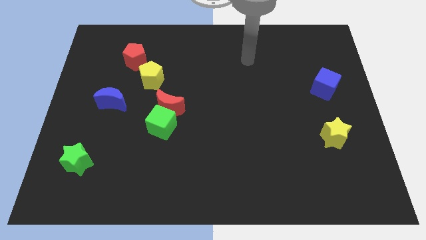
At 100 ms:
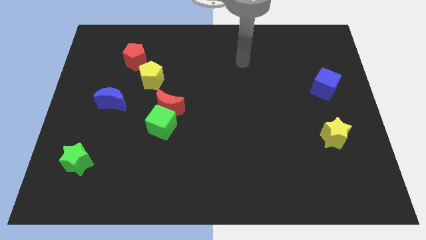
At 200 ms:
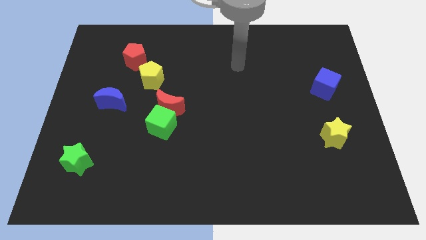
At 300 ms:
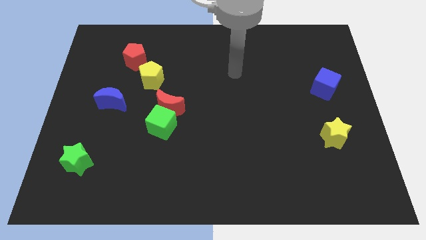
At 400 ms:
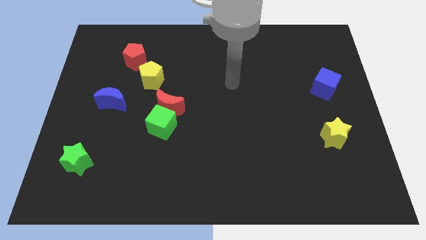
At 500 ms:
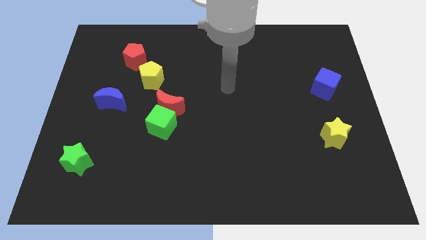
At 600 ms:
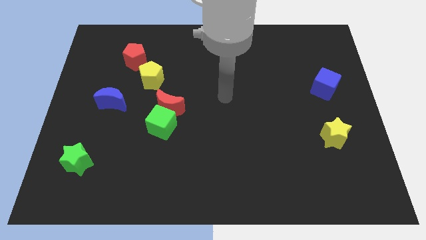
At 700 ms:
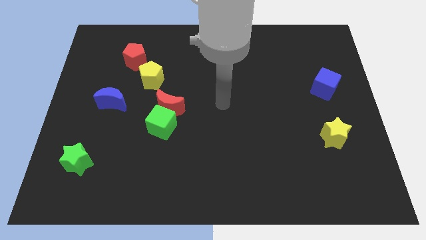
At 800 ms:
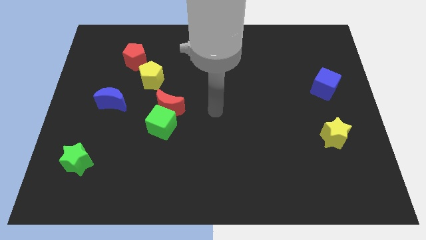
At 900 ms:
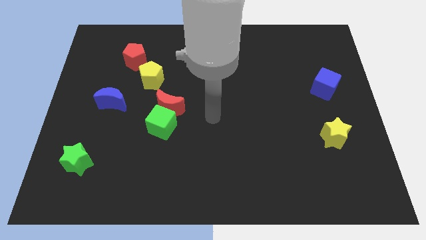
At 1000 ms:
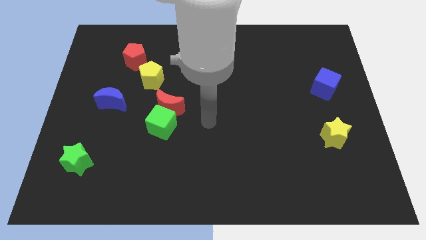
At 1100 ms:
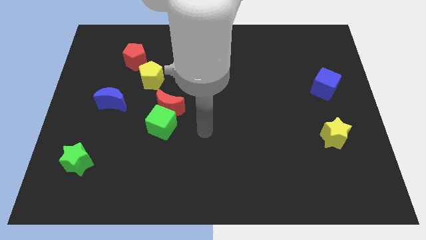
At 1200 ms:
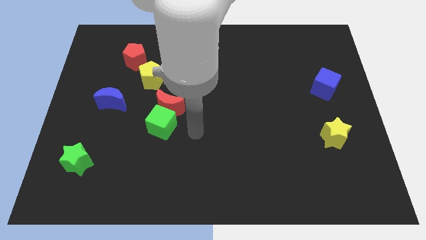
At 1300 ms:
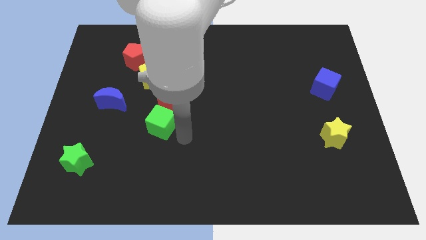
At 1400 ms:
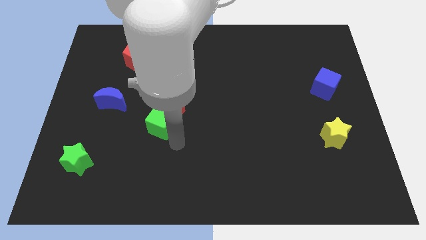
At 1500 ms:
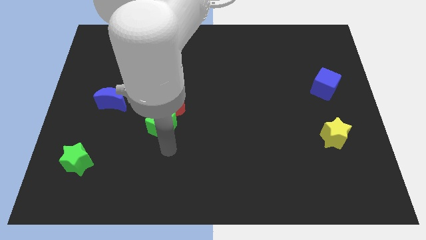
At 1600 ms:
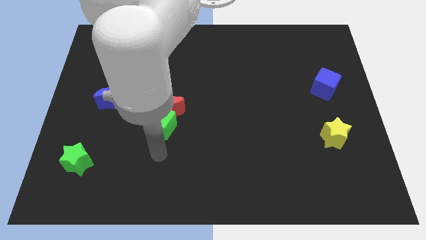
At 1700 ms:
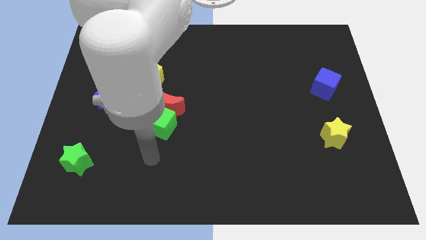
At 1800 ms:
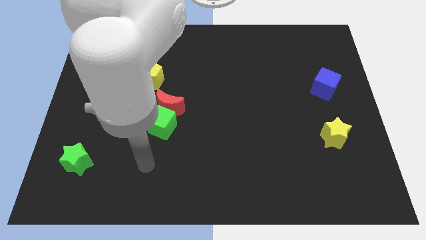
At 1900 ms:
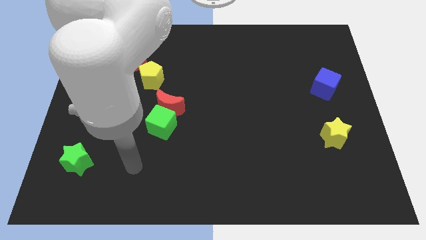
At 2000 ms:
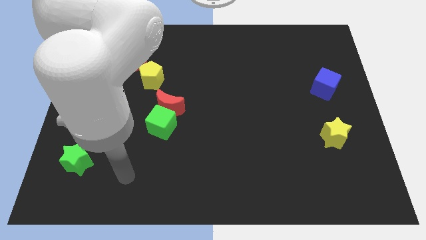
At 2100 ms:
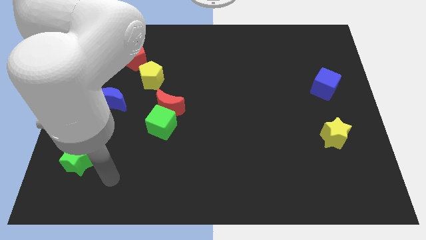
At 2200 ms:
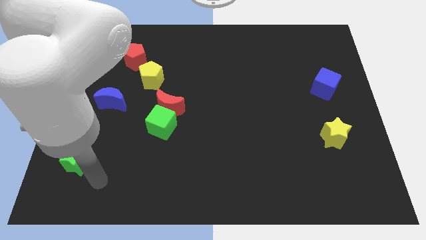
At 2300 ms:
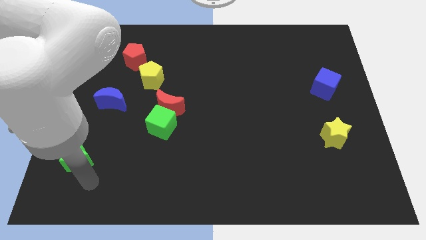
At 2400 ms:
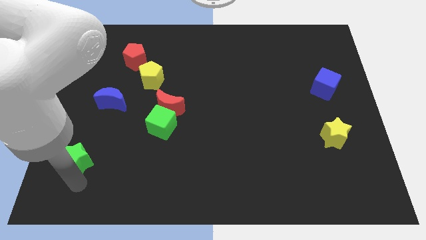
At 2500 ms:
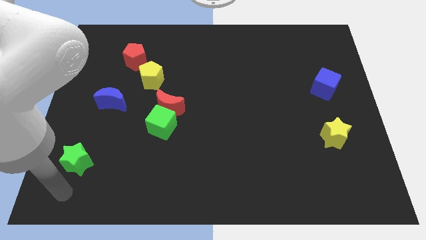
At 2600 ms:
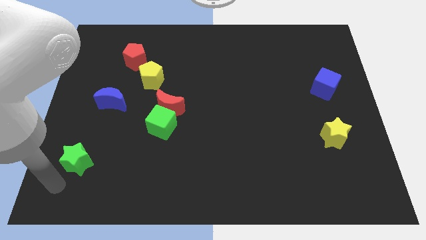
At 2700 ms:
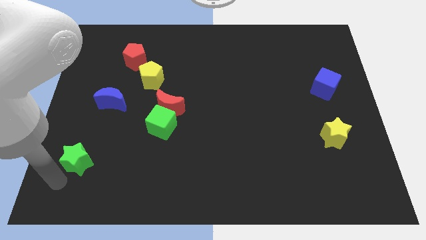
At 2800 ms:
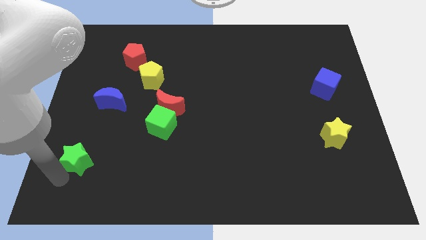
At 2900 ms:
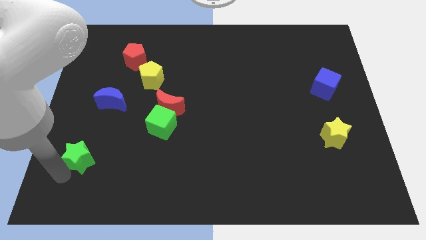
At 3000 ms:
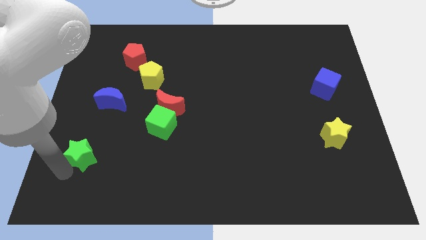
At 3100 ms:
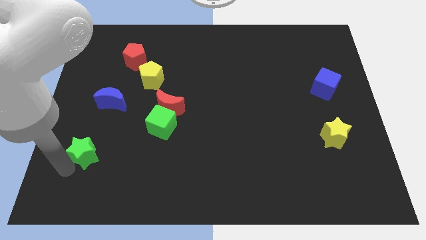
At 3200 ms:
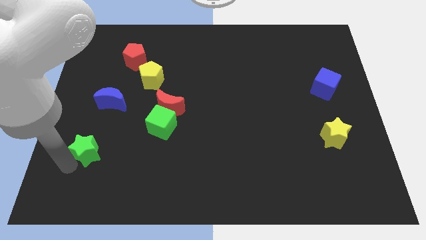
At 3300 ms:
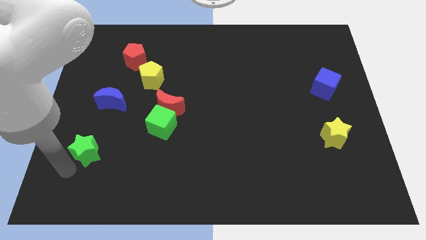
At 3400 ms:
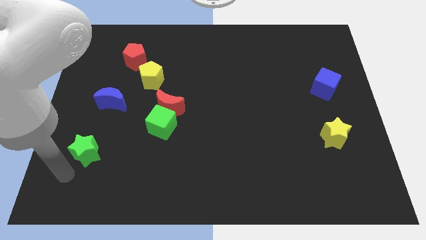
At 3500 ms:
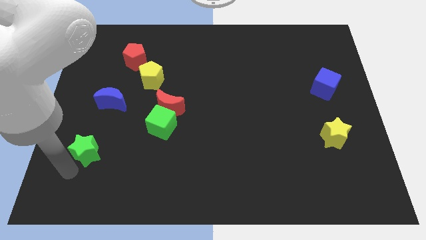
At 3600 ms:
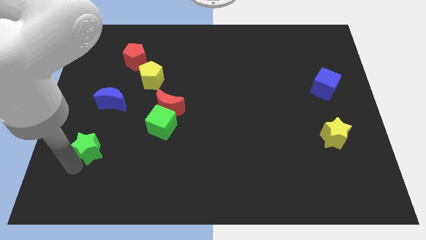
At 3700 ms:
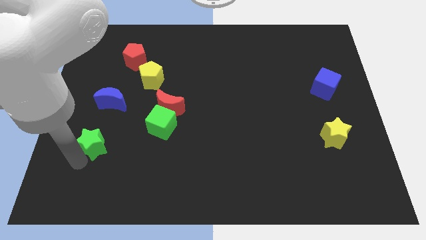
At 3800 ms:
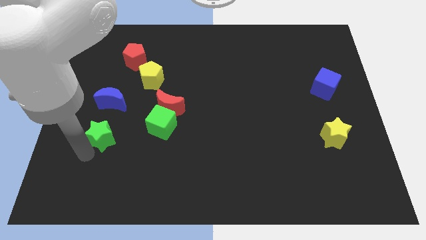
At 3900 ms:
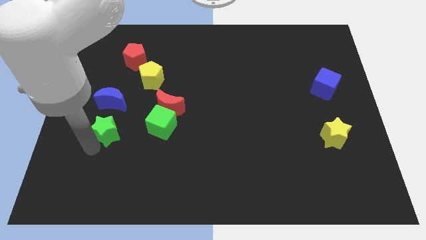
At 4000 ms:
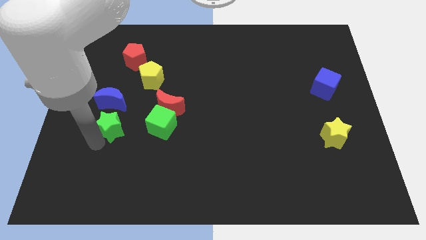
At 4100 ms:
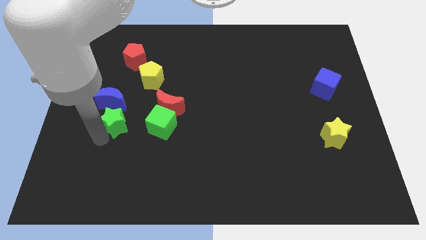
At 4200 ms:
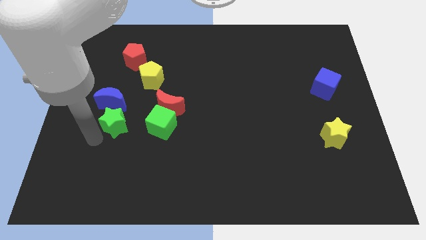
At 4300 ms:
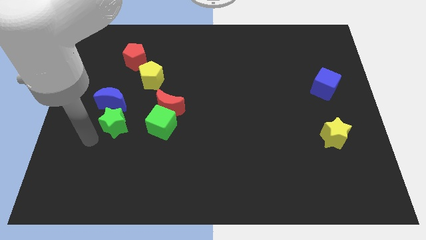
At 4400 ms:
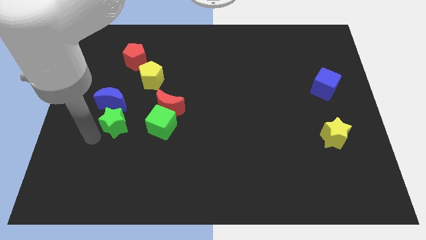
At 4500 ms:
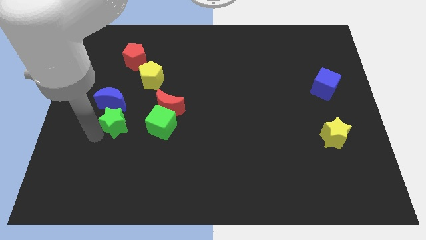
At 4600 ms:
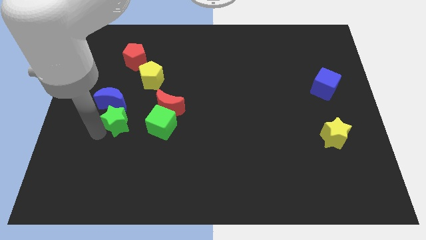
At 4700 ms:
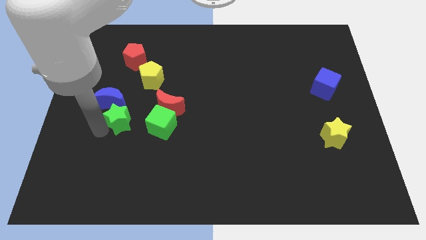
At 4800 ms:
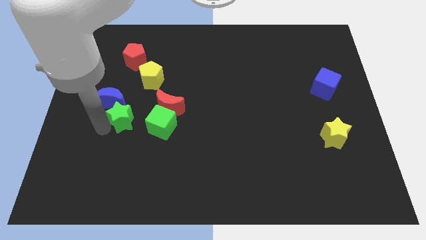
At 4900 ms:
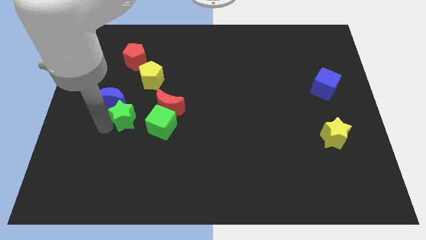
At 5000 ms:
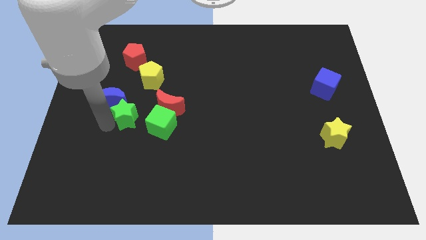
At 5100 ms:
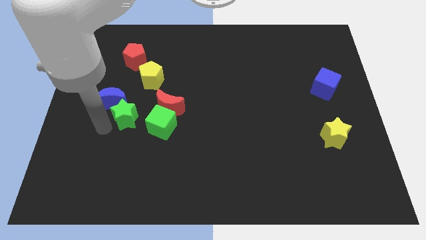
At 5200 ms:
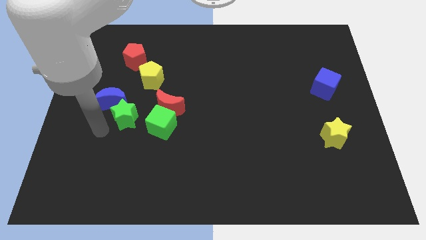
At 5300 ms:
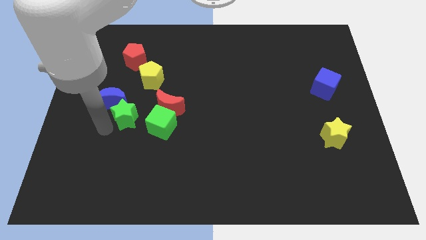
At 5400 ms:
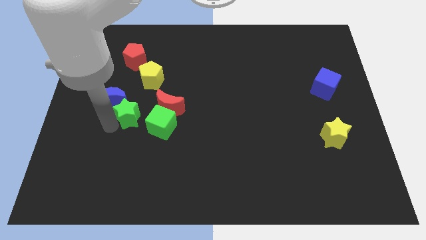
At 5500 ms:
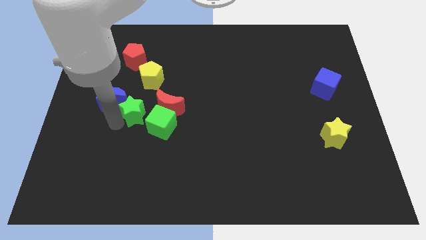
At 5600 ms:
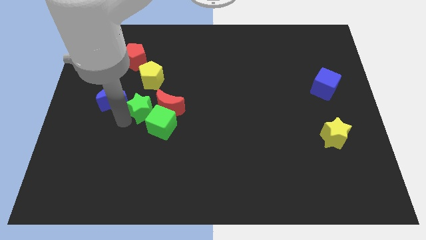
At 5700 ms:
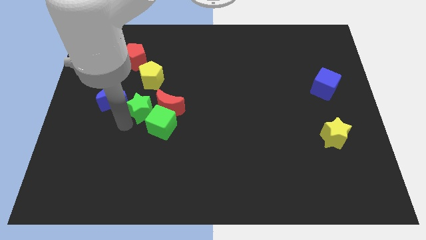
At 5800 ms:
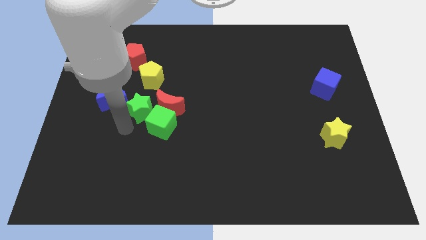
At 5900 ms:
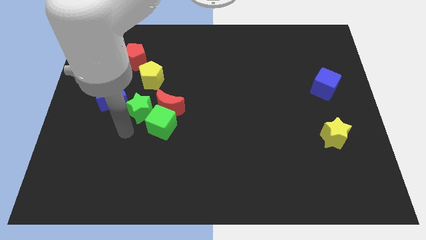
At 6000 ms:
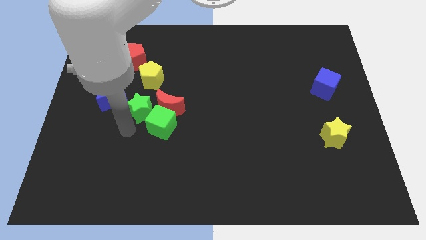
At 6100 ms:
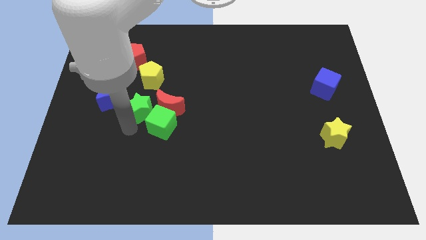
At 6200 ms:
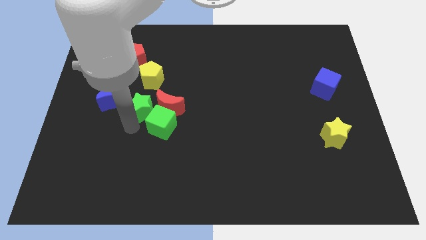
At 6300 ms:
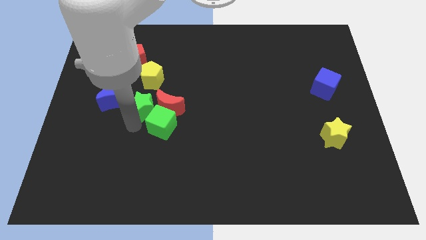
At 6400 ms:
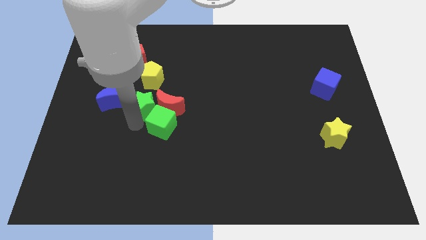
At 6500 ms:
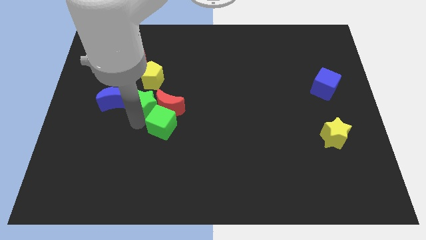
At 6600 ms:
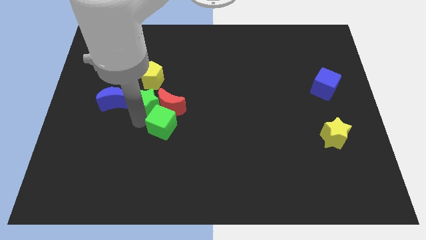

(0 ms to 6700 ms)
move the green star upwards and to the right

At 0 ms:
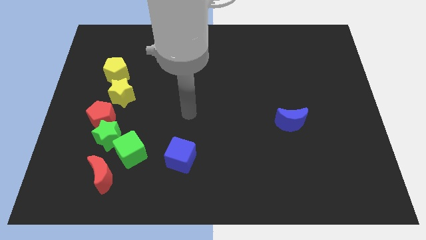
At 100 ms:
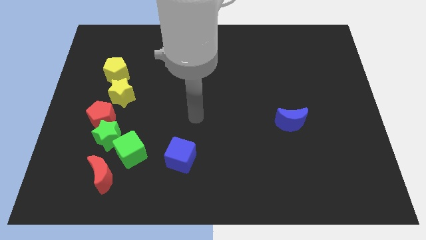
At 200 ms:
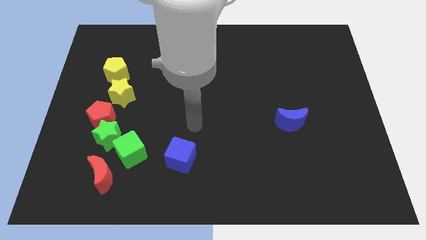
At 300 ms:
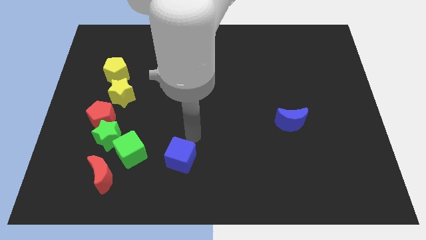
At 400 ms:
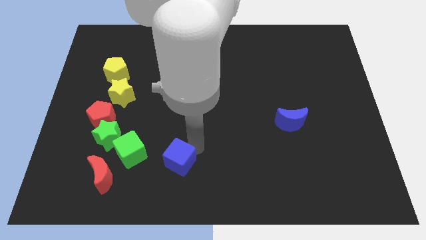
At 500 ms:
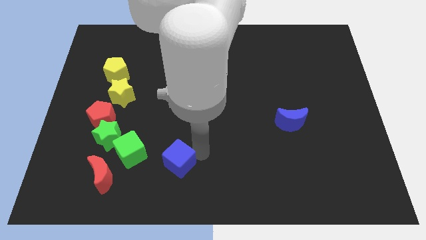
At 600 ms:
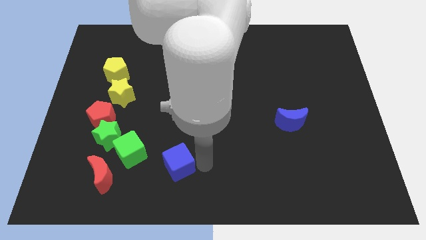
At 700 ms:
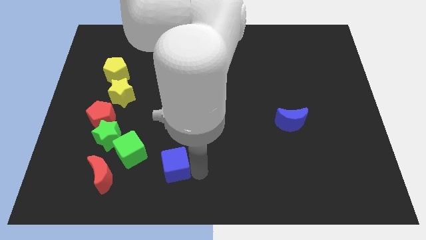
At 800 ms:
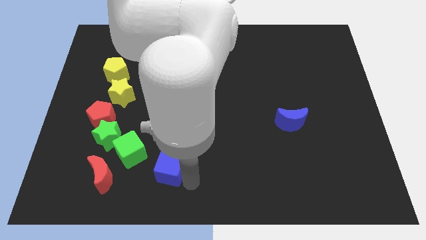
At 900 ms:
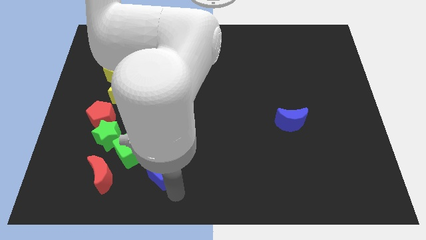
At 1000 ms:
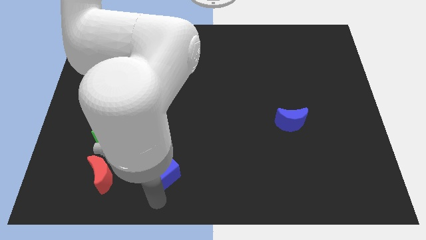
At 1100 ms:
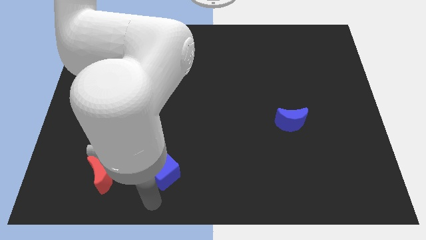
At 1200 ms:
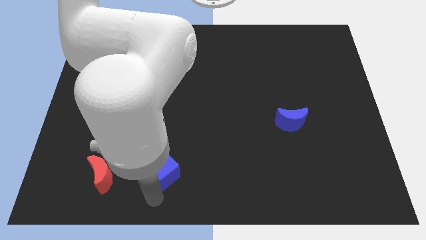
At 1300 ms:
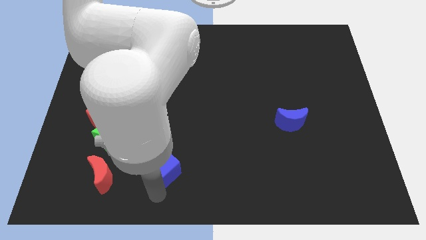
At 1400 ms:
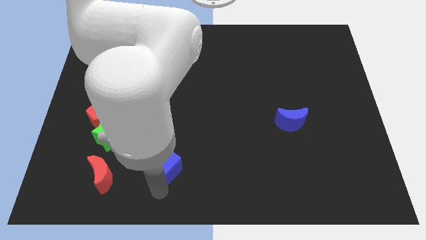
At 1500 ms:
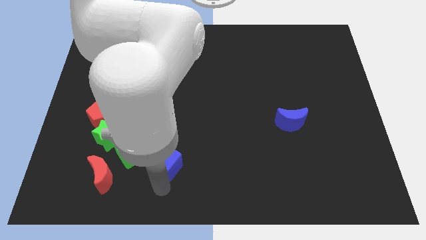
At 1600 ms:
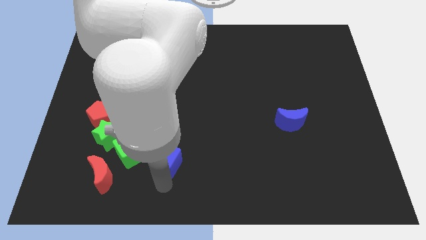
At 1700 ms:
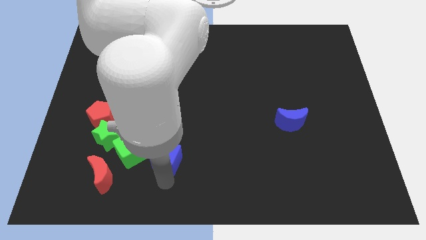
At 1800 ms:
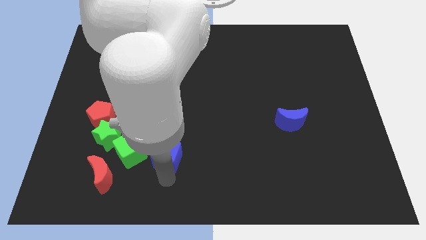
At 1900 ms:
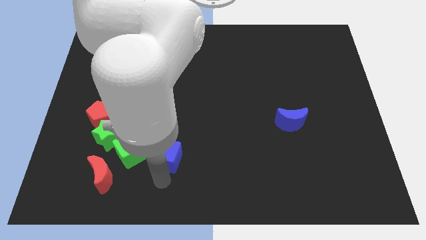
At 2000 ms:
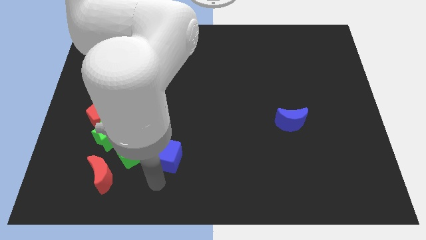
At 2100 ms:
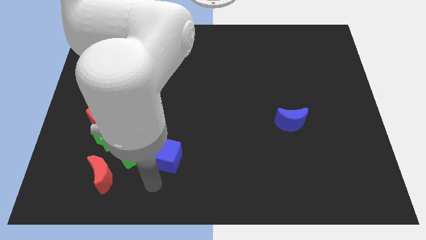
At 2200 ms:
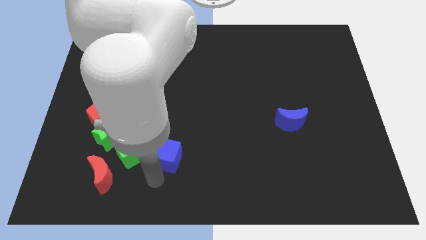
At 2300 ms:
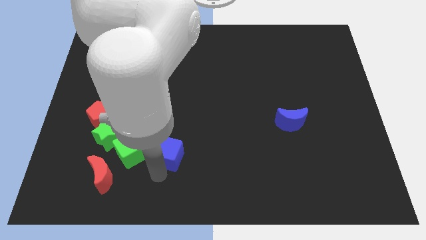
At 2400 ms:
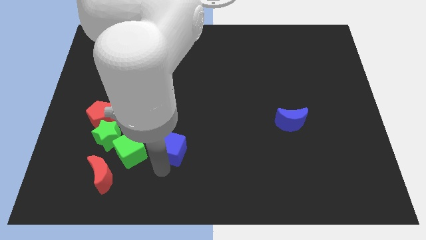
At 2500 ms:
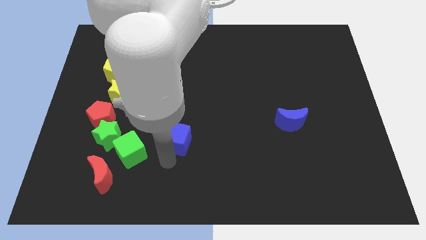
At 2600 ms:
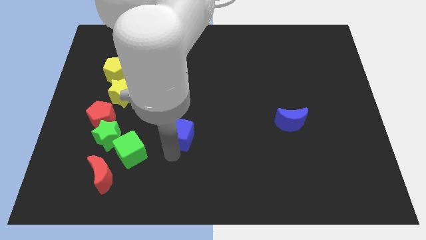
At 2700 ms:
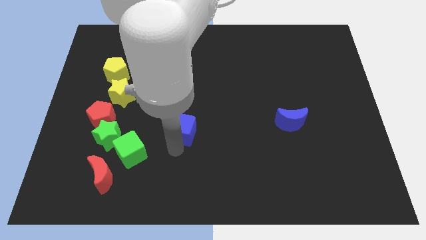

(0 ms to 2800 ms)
slightly push the blue cube upwards
